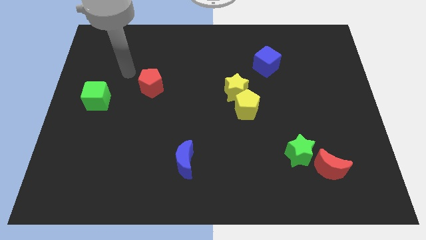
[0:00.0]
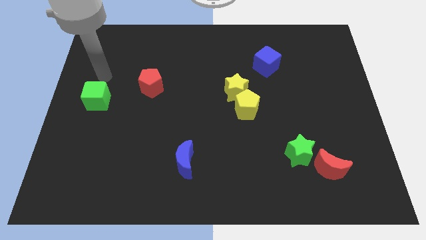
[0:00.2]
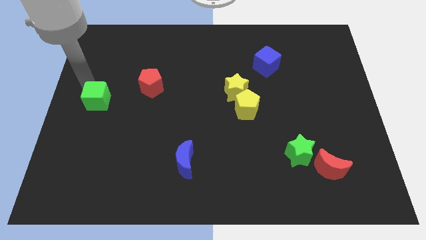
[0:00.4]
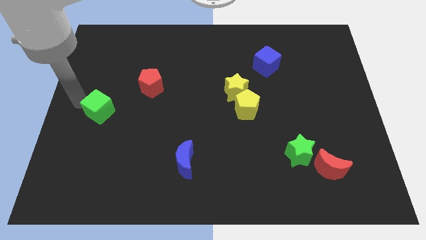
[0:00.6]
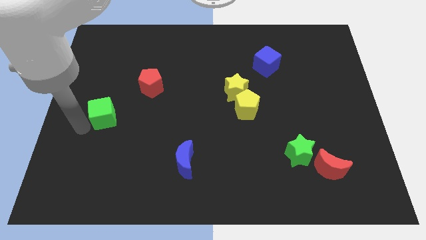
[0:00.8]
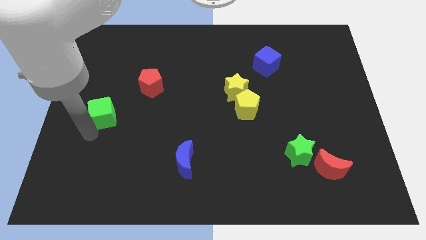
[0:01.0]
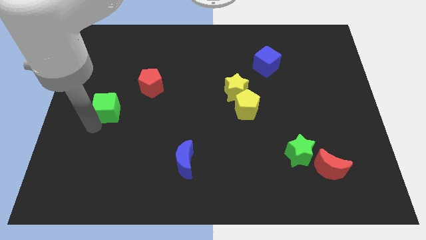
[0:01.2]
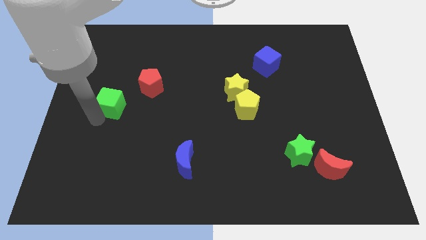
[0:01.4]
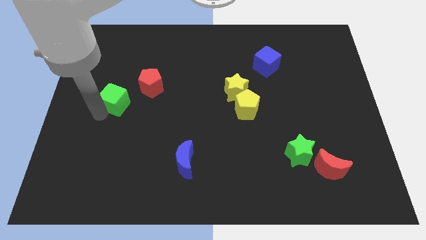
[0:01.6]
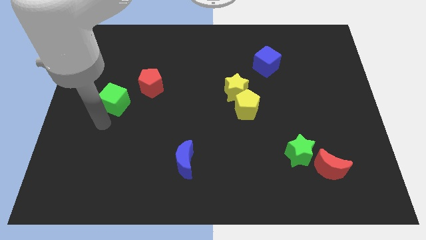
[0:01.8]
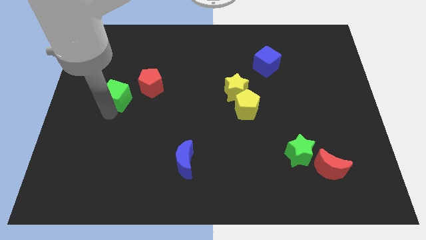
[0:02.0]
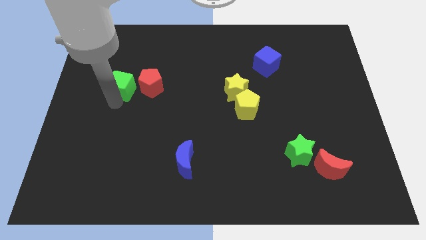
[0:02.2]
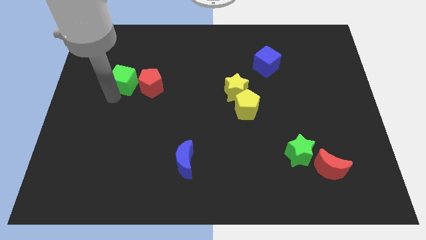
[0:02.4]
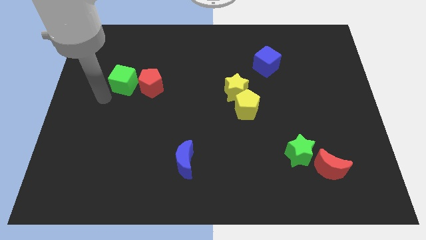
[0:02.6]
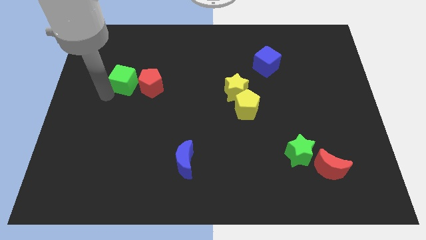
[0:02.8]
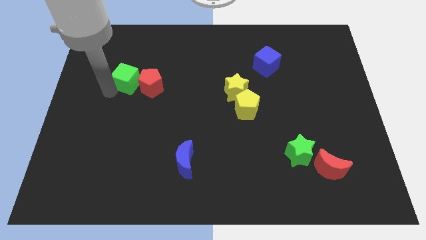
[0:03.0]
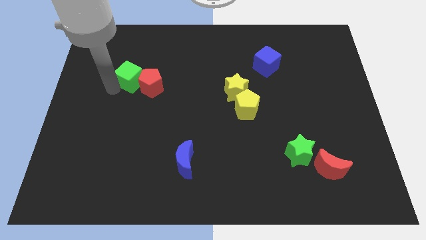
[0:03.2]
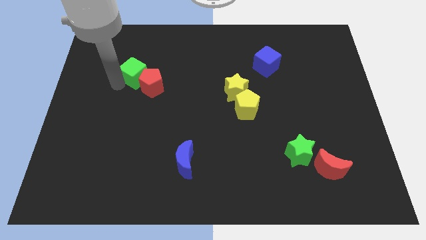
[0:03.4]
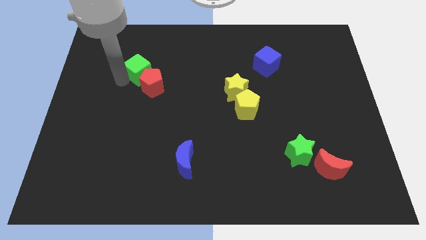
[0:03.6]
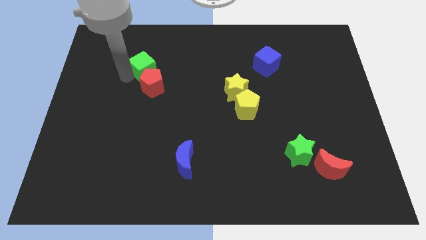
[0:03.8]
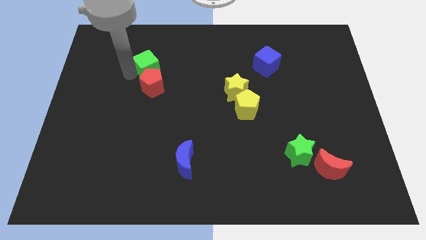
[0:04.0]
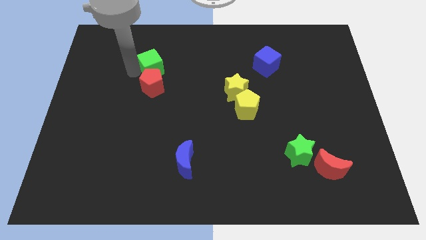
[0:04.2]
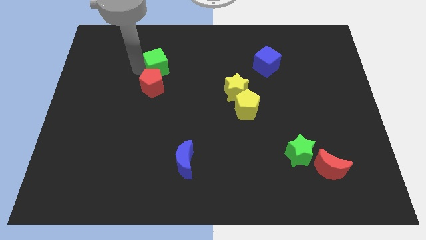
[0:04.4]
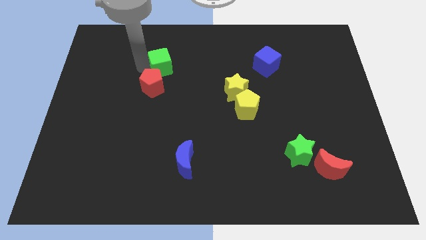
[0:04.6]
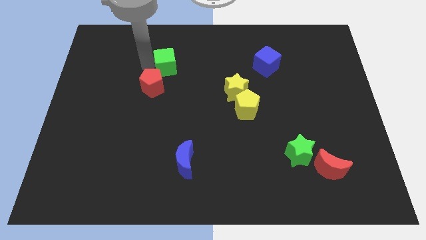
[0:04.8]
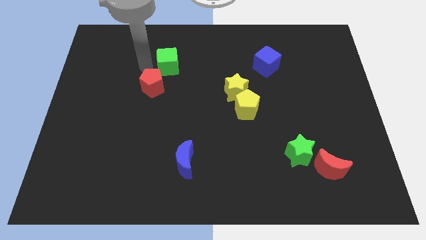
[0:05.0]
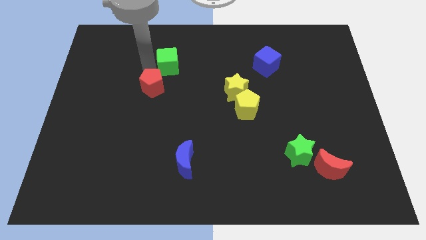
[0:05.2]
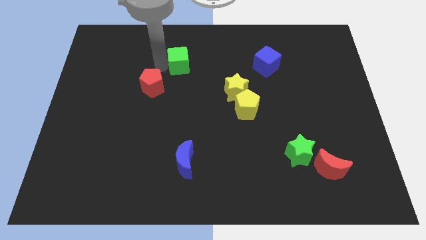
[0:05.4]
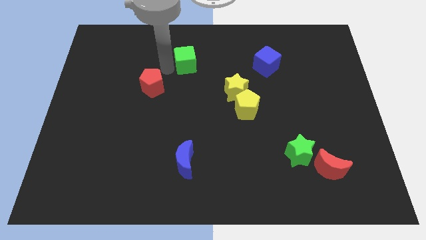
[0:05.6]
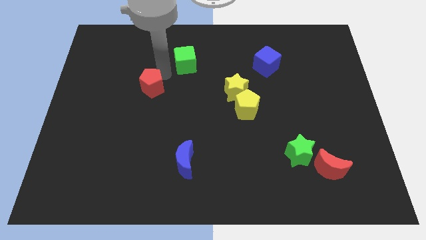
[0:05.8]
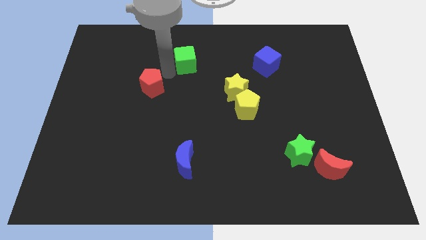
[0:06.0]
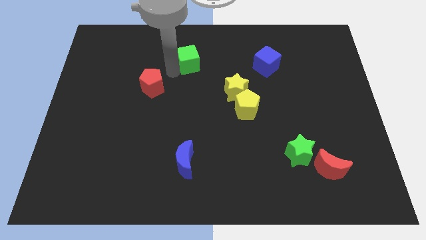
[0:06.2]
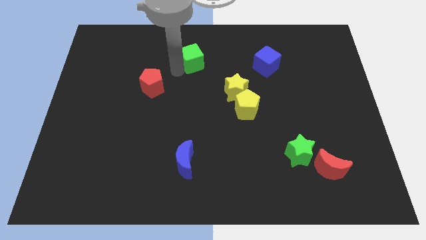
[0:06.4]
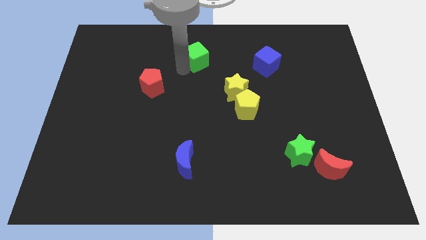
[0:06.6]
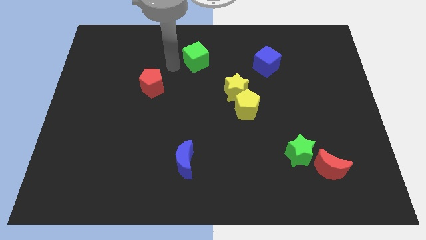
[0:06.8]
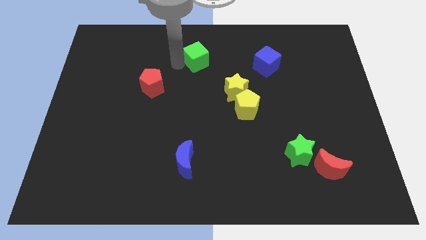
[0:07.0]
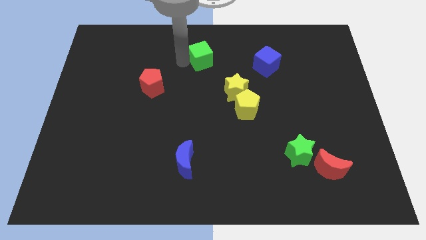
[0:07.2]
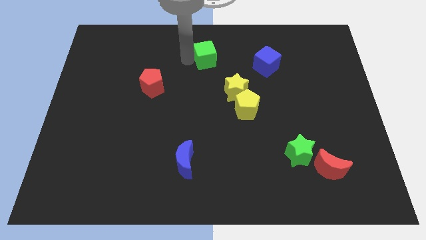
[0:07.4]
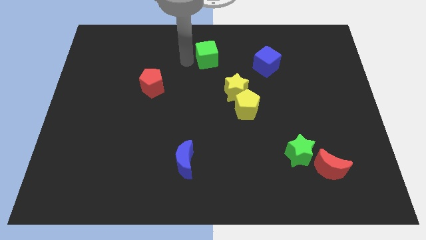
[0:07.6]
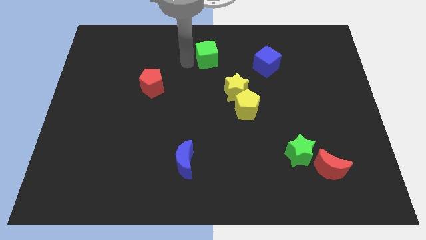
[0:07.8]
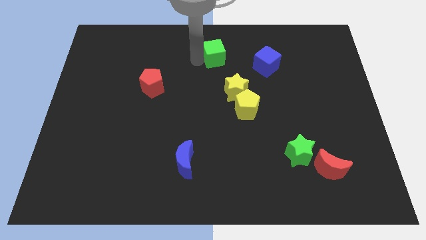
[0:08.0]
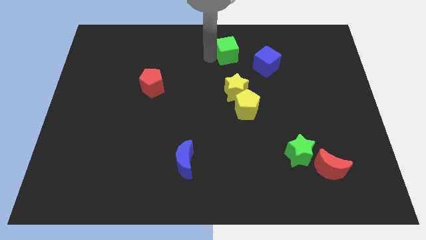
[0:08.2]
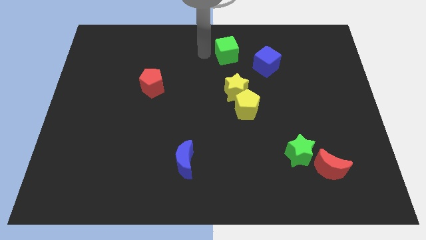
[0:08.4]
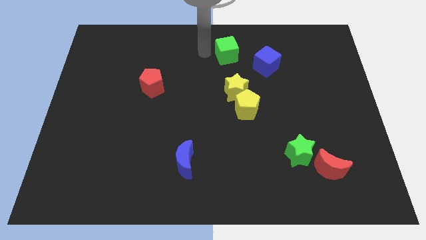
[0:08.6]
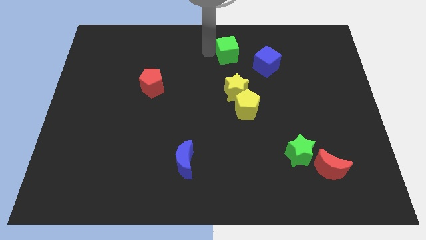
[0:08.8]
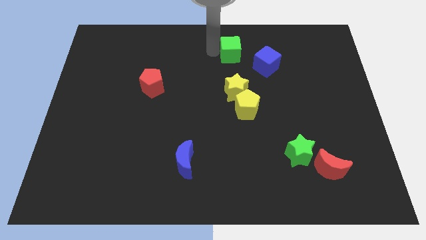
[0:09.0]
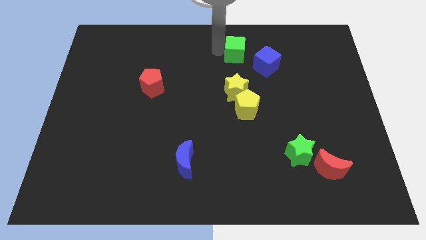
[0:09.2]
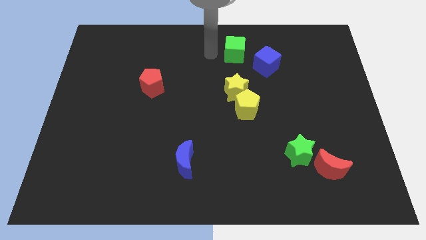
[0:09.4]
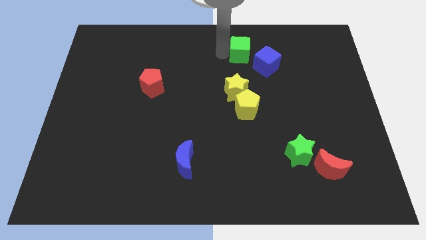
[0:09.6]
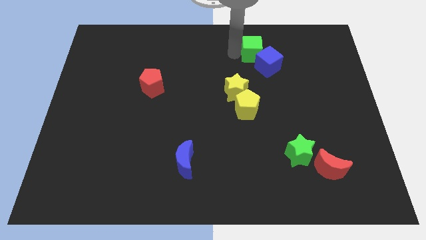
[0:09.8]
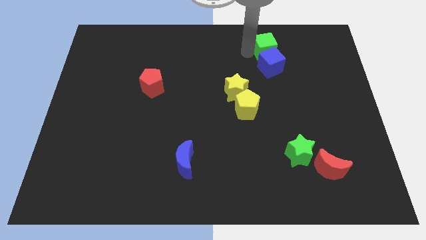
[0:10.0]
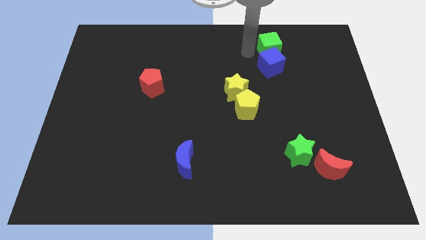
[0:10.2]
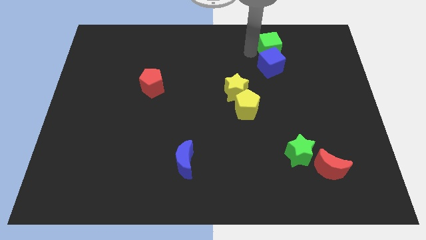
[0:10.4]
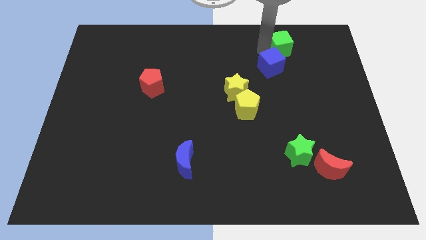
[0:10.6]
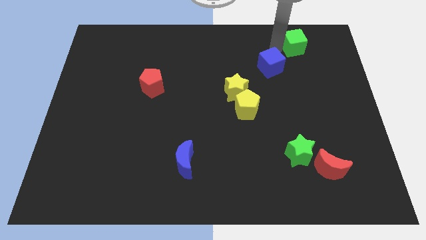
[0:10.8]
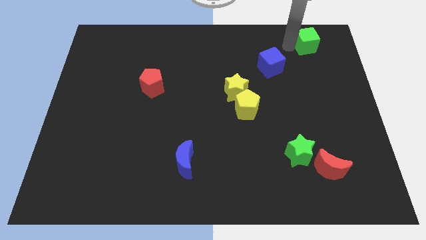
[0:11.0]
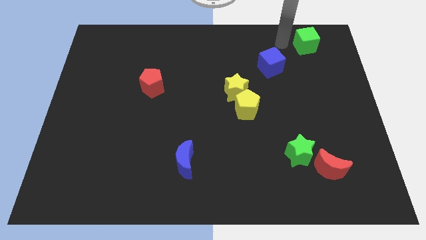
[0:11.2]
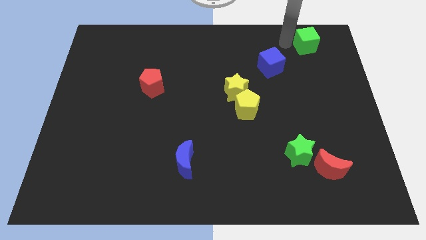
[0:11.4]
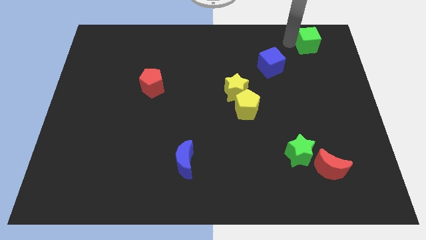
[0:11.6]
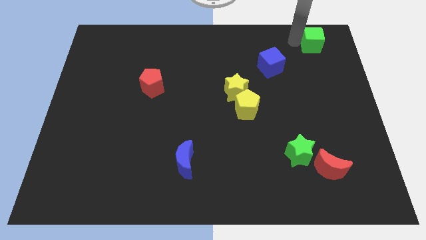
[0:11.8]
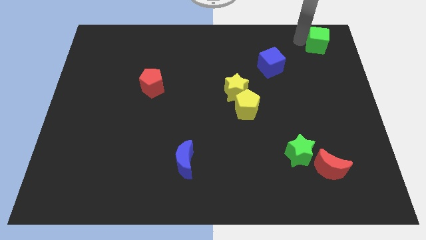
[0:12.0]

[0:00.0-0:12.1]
push the green cube to the upper right corner

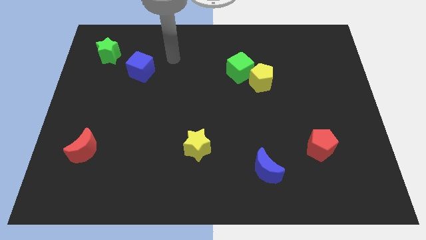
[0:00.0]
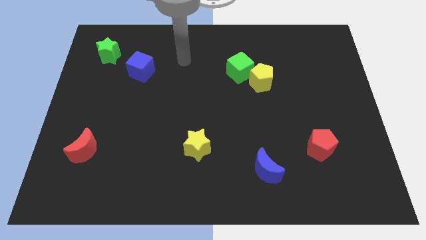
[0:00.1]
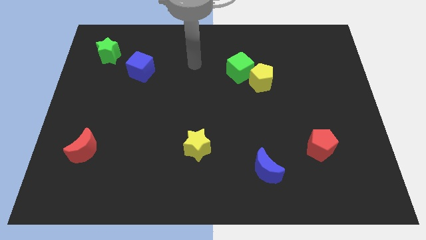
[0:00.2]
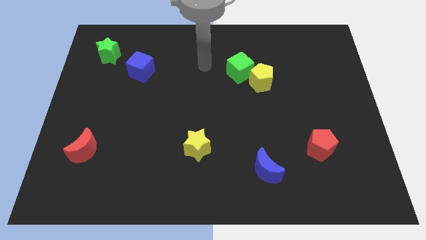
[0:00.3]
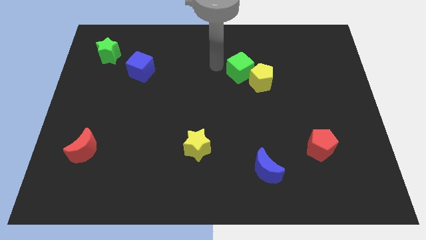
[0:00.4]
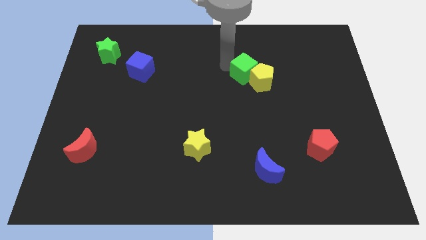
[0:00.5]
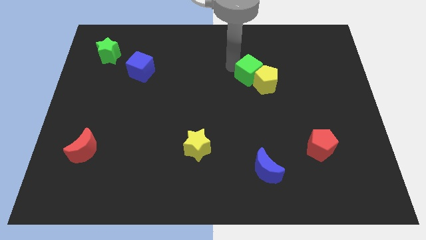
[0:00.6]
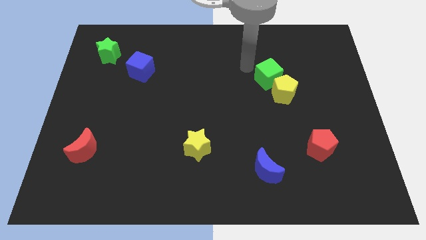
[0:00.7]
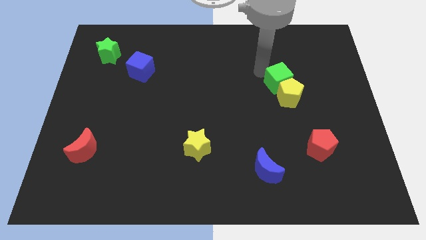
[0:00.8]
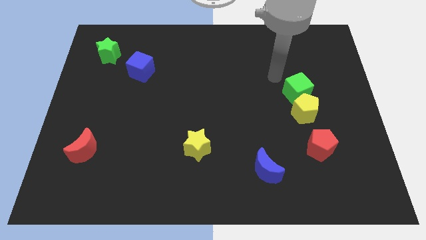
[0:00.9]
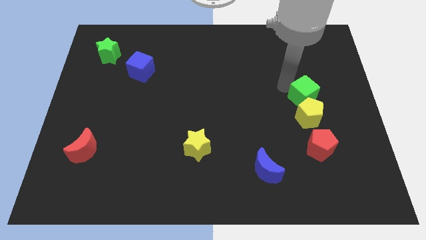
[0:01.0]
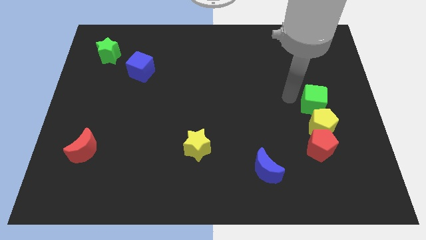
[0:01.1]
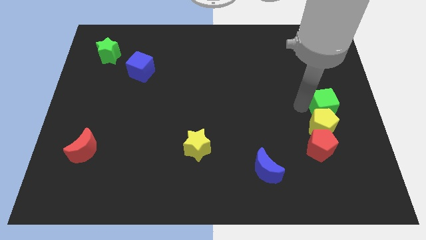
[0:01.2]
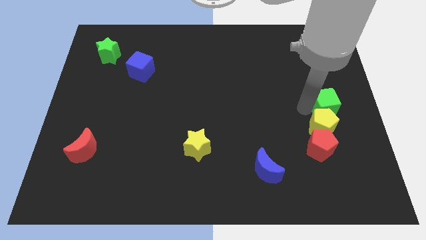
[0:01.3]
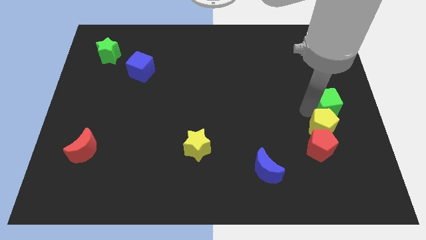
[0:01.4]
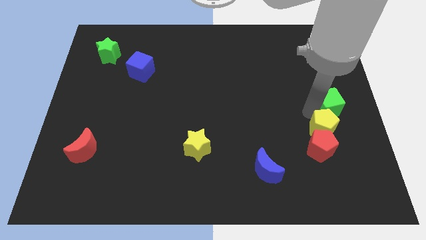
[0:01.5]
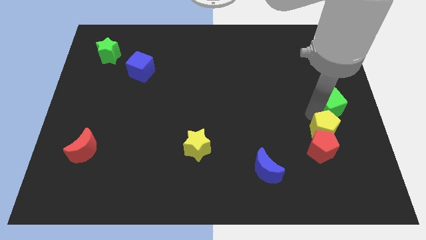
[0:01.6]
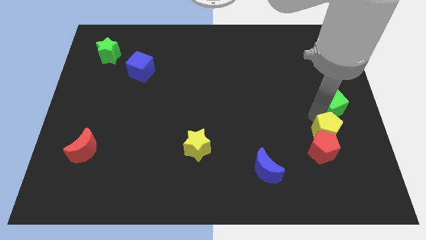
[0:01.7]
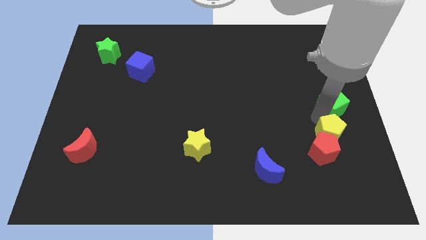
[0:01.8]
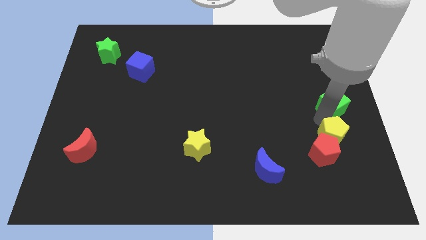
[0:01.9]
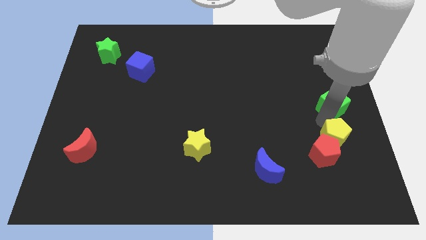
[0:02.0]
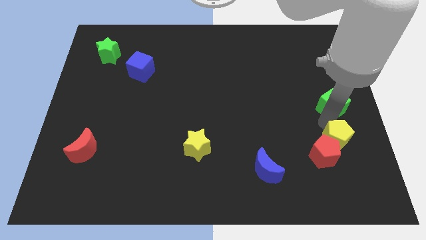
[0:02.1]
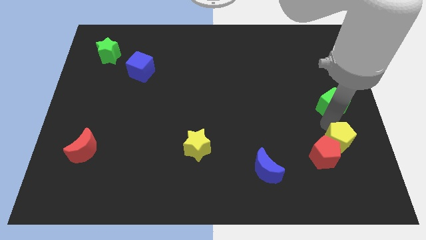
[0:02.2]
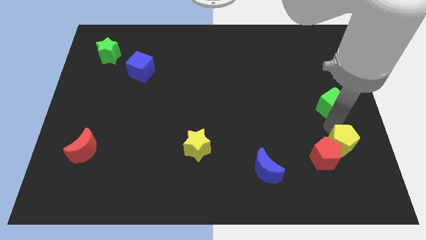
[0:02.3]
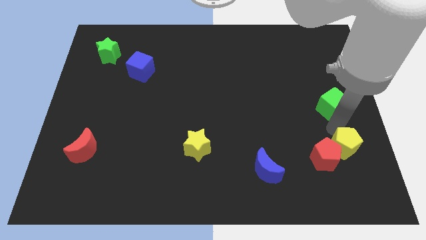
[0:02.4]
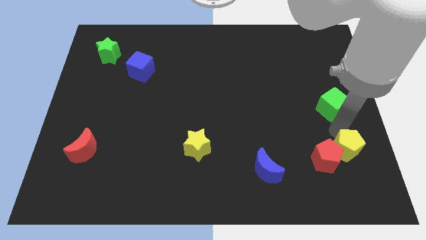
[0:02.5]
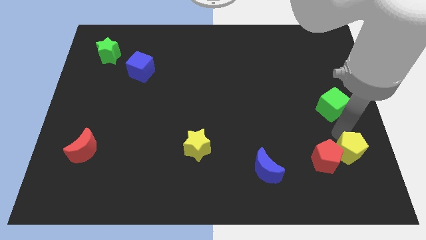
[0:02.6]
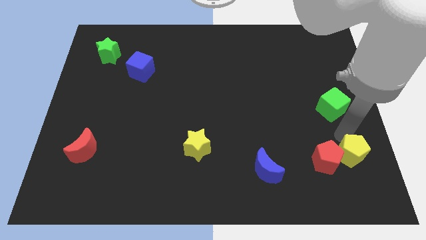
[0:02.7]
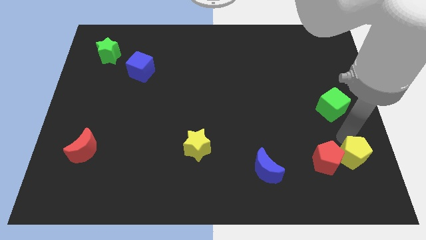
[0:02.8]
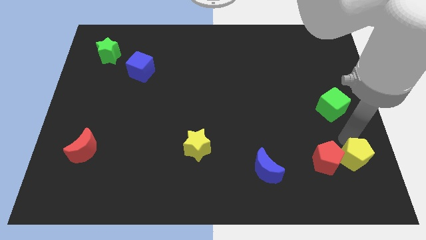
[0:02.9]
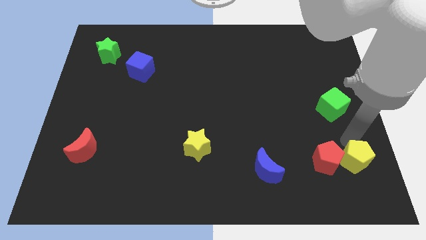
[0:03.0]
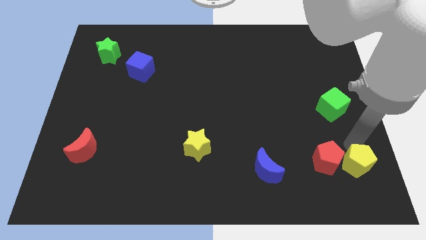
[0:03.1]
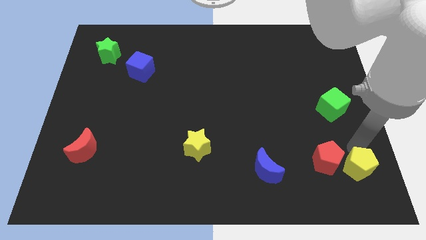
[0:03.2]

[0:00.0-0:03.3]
push the yellow pentagon to the bottom right corner
